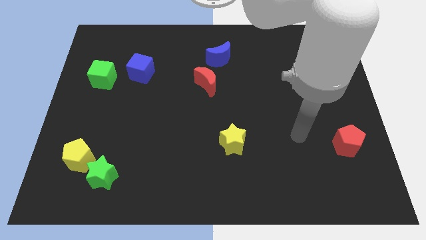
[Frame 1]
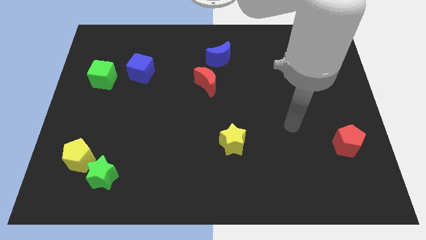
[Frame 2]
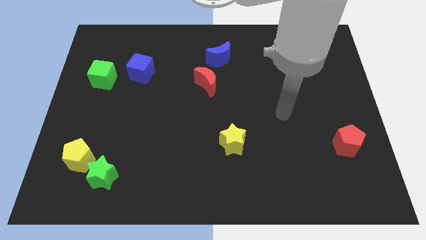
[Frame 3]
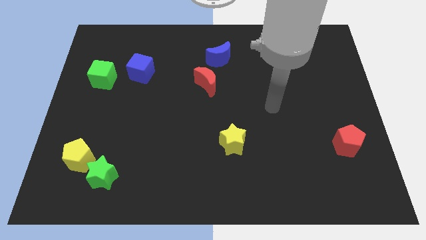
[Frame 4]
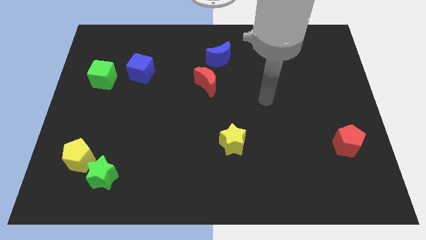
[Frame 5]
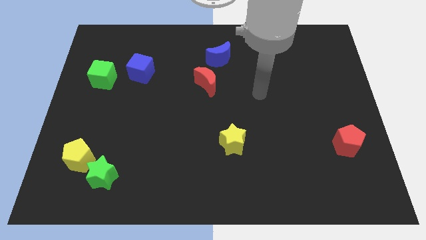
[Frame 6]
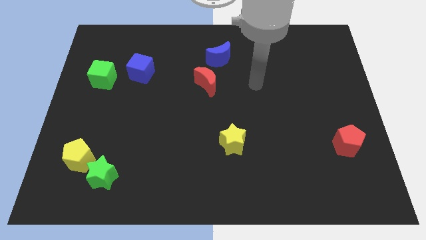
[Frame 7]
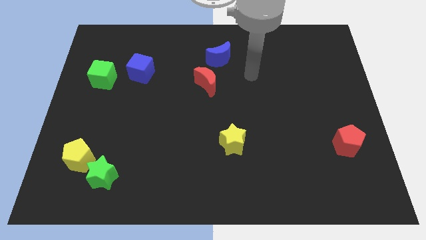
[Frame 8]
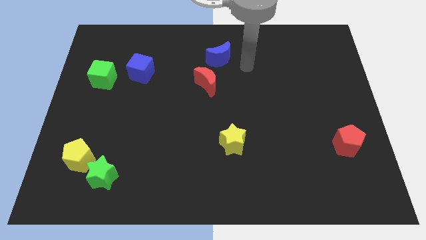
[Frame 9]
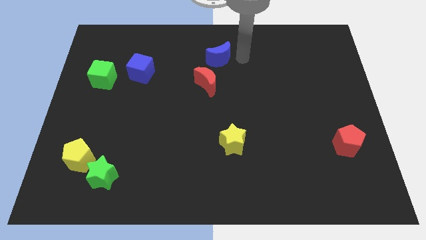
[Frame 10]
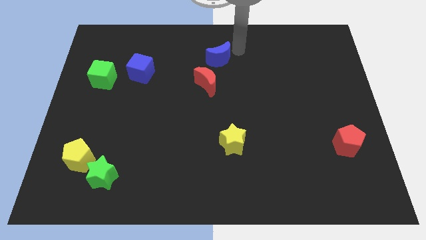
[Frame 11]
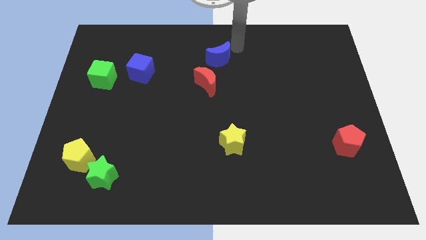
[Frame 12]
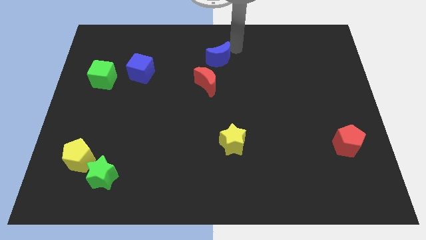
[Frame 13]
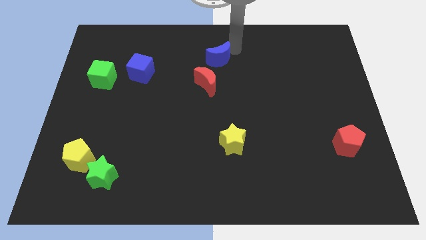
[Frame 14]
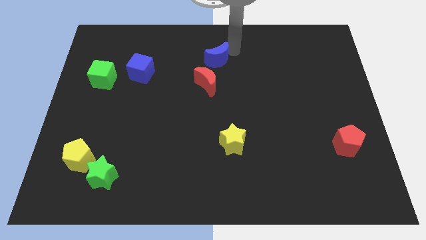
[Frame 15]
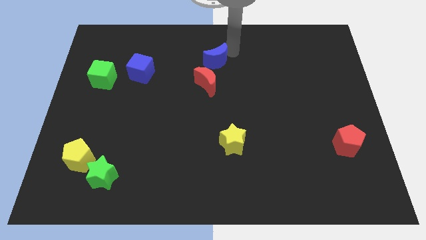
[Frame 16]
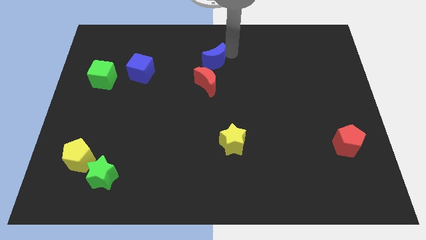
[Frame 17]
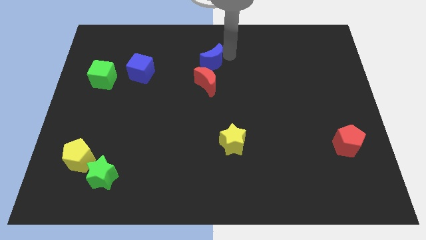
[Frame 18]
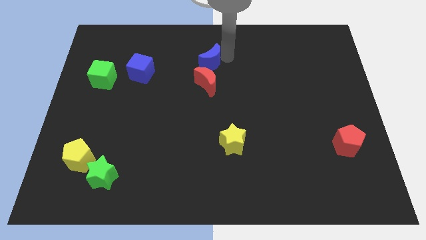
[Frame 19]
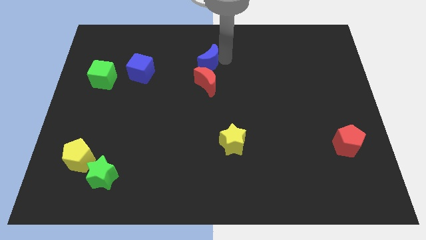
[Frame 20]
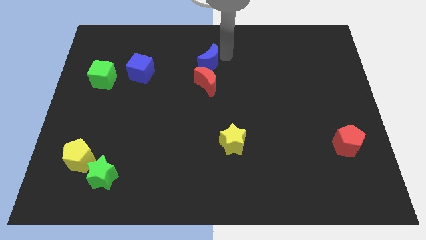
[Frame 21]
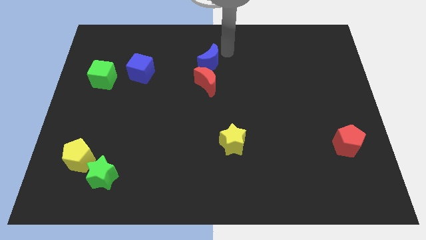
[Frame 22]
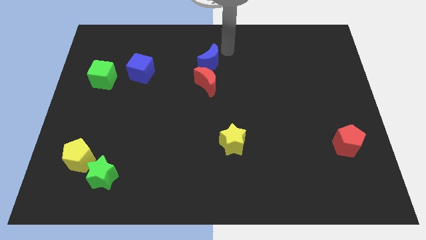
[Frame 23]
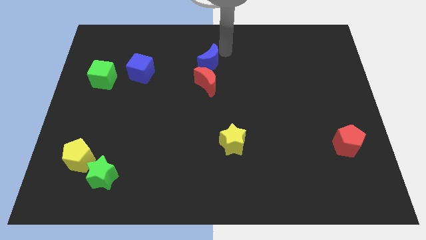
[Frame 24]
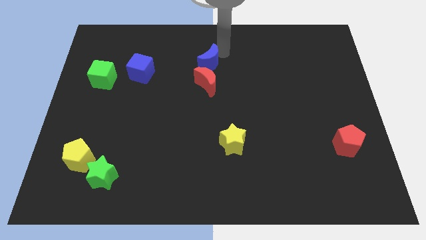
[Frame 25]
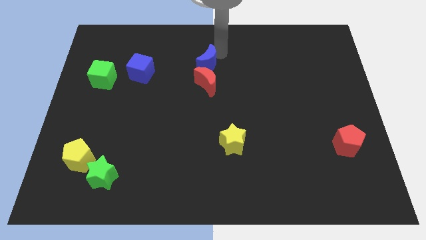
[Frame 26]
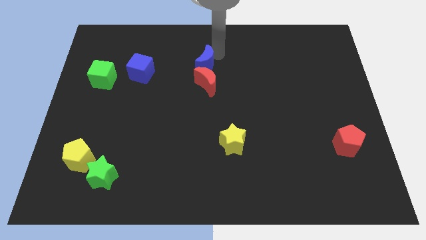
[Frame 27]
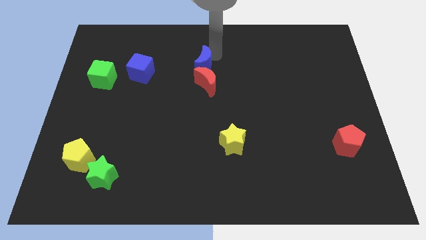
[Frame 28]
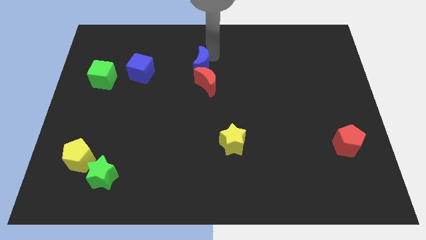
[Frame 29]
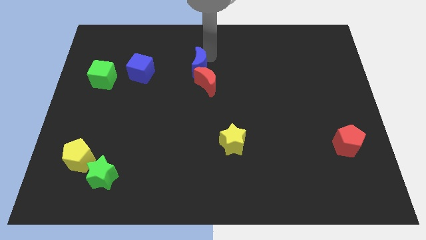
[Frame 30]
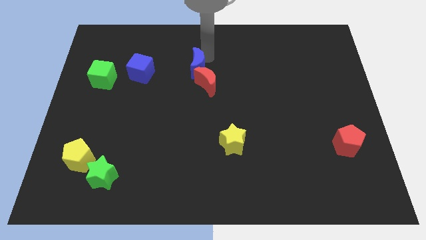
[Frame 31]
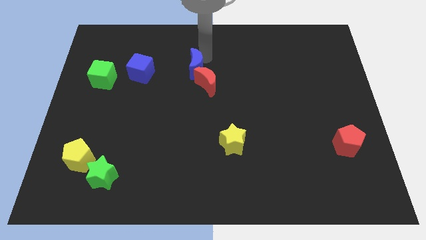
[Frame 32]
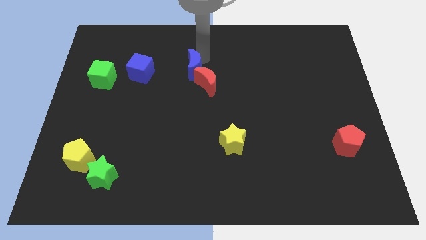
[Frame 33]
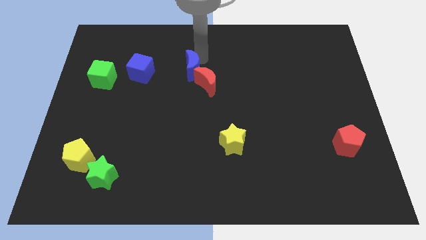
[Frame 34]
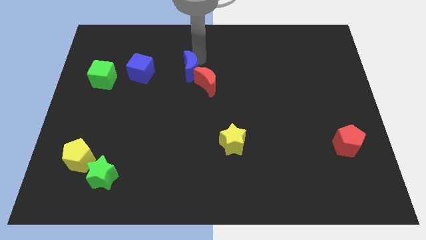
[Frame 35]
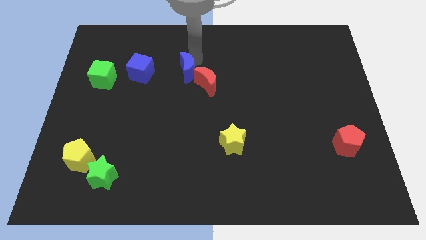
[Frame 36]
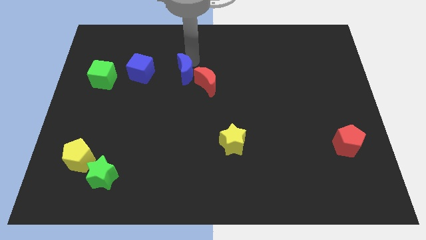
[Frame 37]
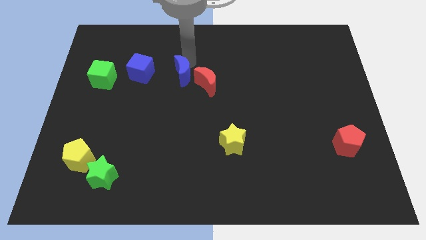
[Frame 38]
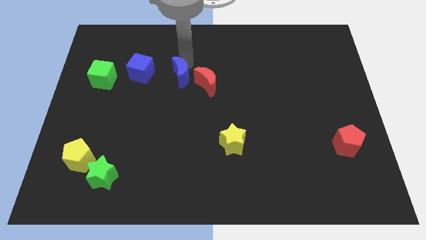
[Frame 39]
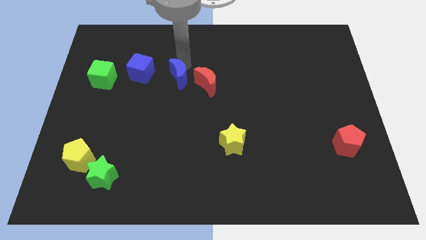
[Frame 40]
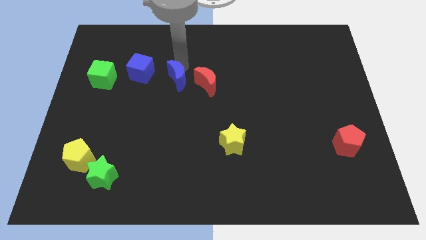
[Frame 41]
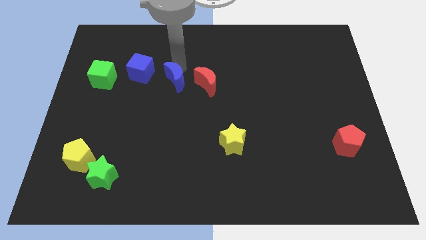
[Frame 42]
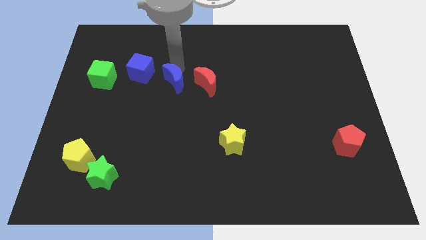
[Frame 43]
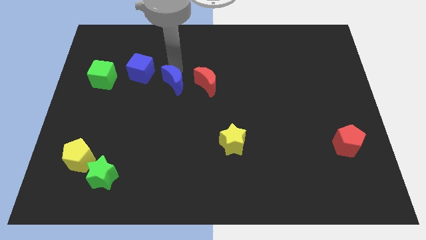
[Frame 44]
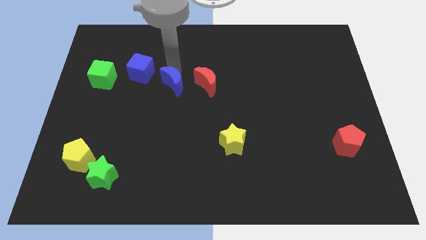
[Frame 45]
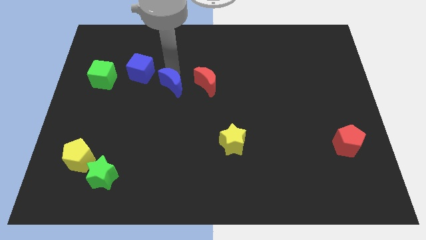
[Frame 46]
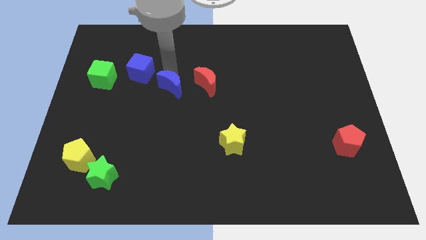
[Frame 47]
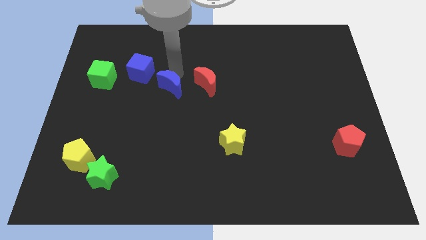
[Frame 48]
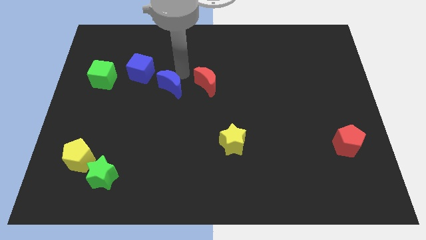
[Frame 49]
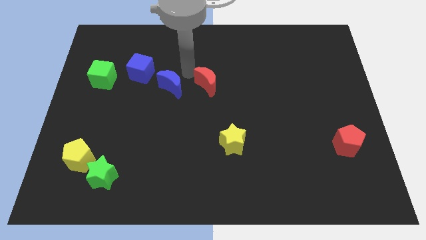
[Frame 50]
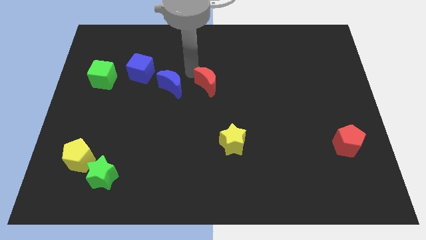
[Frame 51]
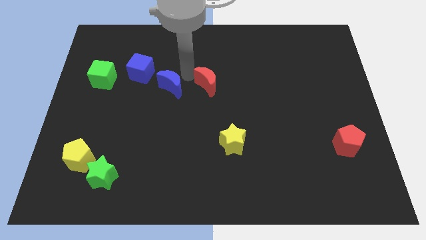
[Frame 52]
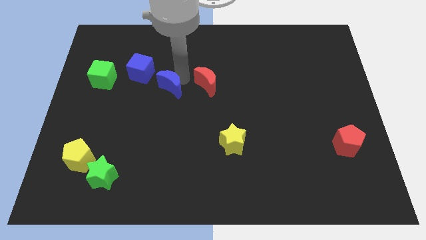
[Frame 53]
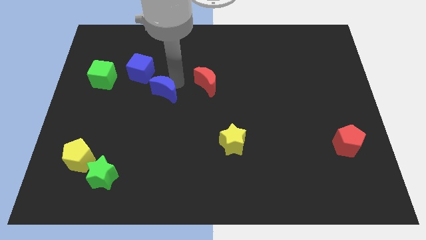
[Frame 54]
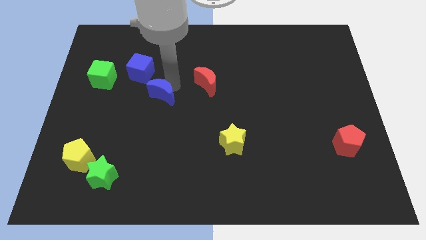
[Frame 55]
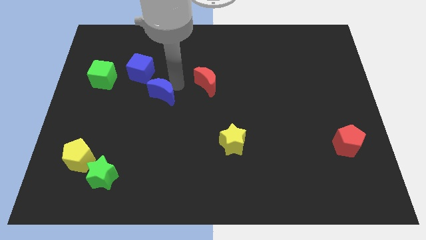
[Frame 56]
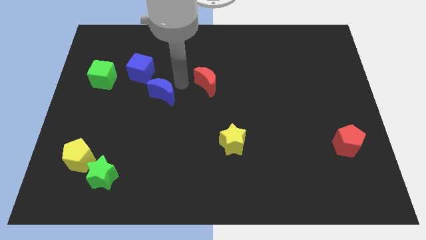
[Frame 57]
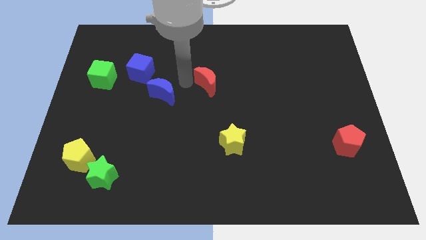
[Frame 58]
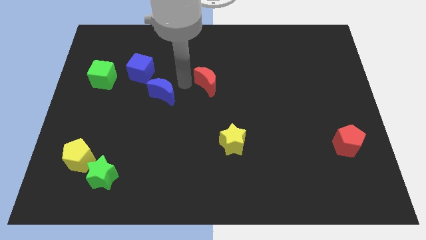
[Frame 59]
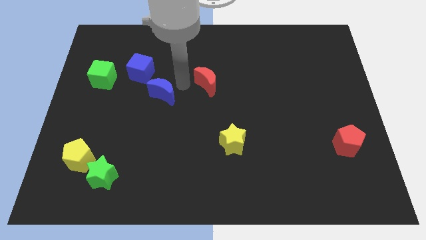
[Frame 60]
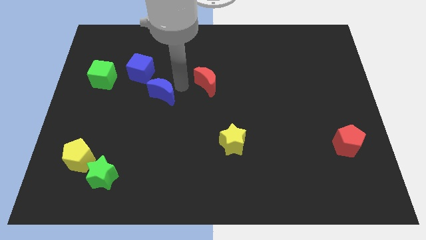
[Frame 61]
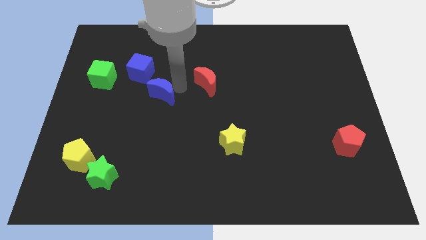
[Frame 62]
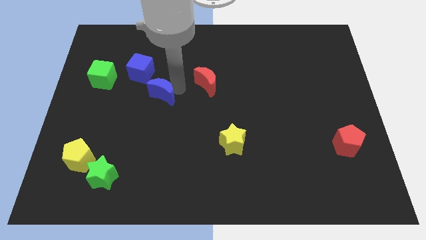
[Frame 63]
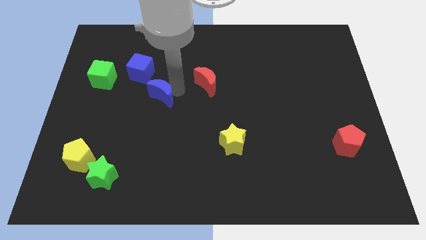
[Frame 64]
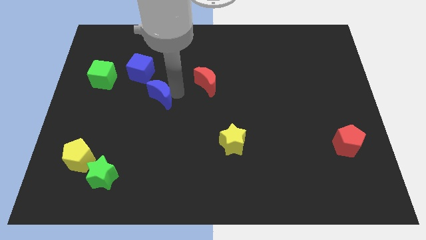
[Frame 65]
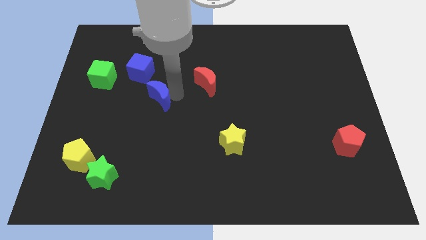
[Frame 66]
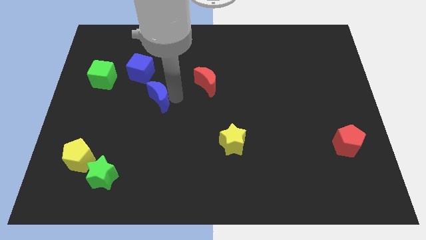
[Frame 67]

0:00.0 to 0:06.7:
slide the blue moon diagonally down and left

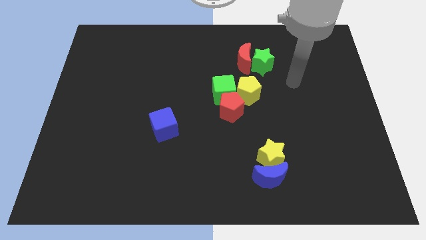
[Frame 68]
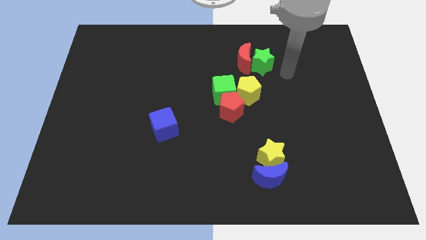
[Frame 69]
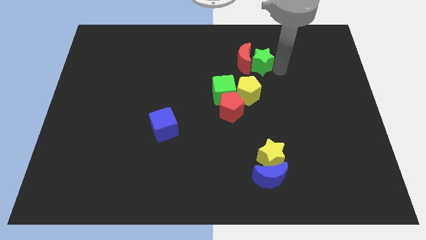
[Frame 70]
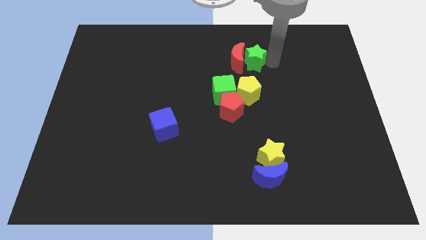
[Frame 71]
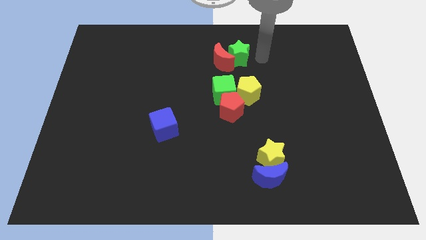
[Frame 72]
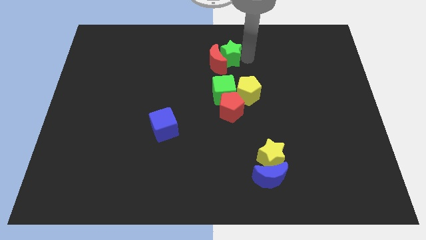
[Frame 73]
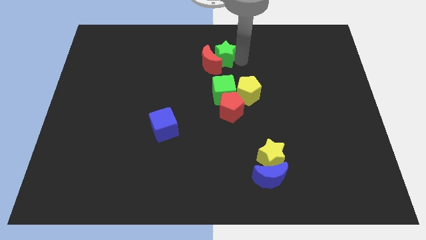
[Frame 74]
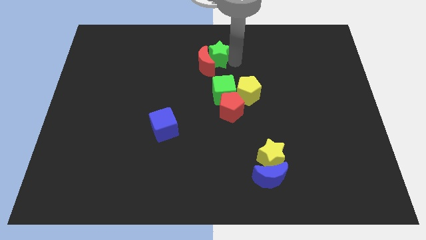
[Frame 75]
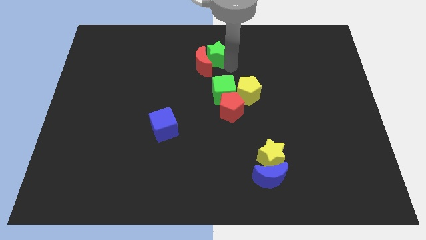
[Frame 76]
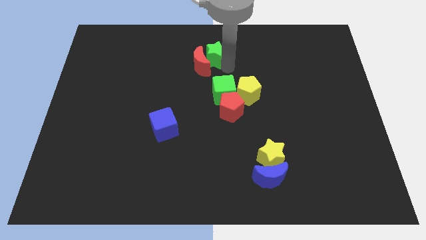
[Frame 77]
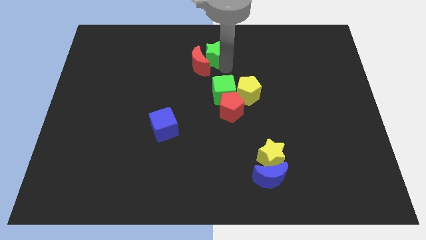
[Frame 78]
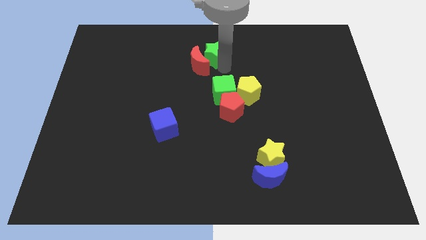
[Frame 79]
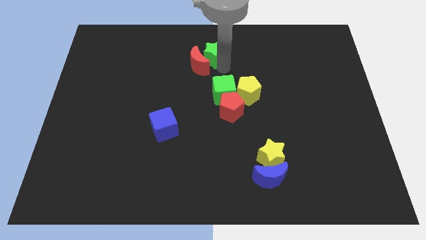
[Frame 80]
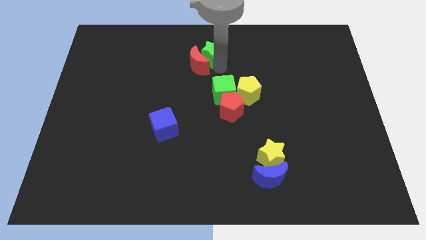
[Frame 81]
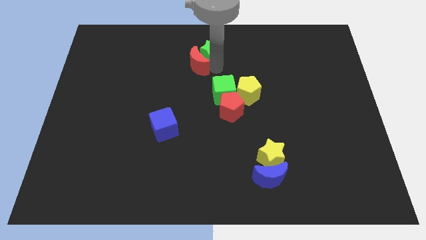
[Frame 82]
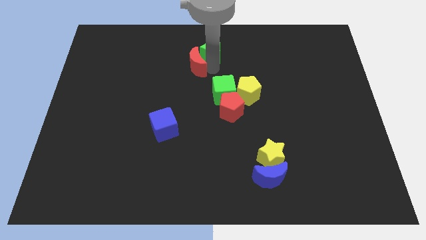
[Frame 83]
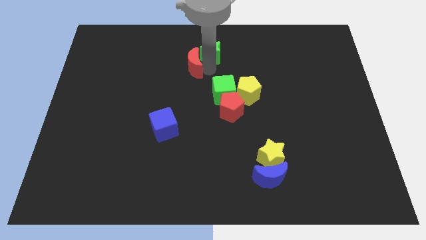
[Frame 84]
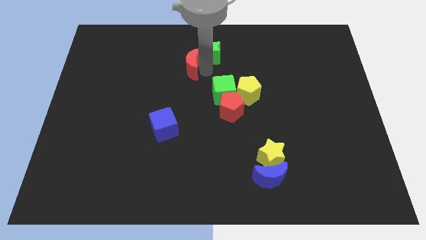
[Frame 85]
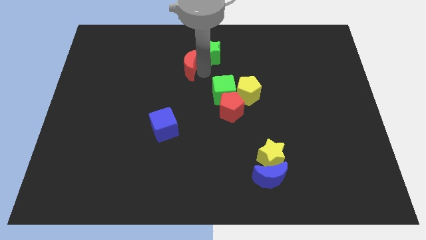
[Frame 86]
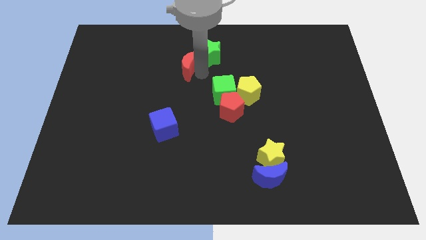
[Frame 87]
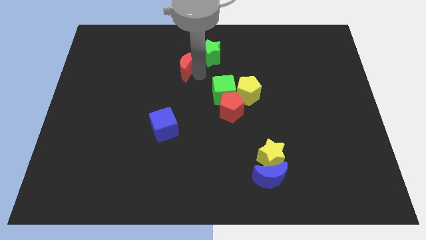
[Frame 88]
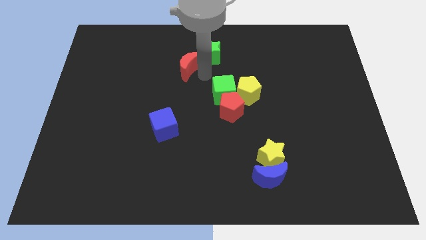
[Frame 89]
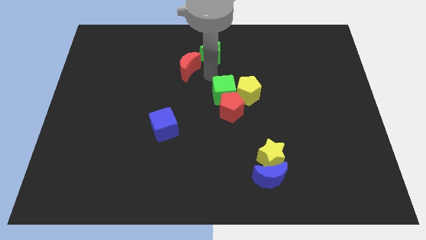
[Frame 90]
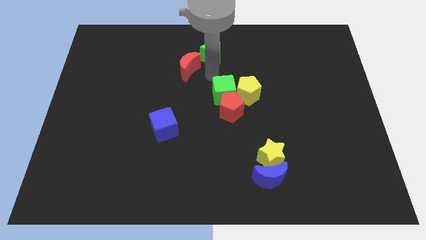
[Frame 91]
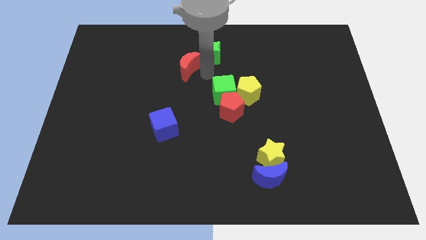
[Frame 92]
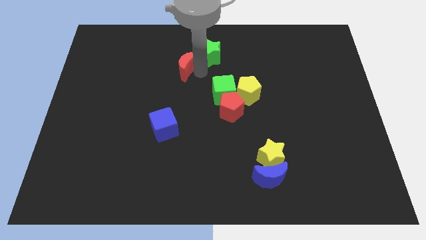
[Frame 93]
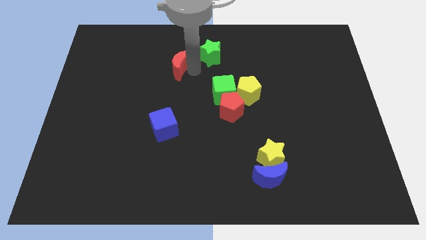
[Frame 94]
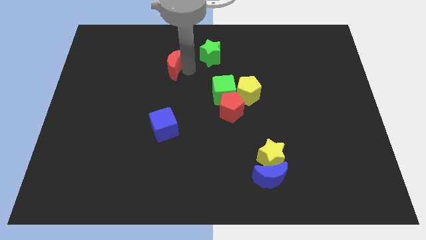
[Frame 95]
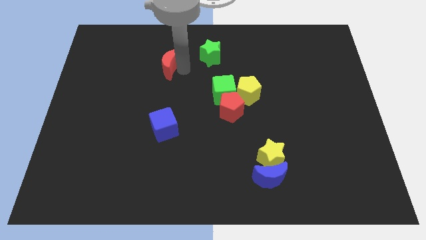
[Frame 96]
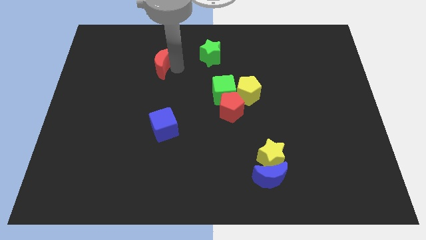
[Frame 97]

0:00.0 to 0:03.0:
slide the red moon left
